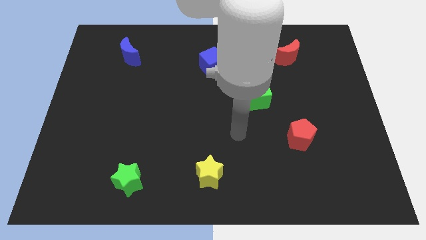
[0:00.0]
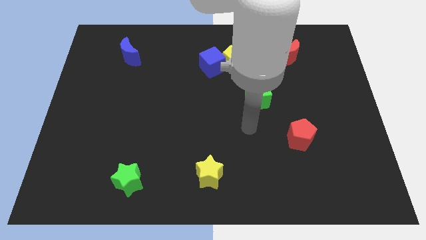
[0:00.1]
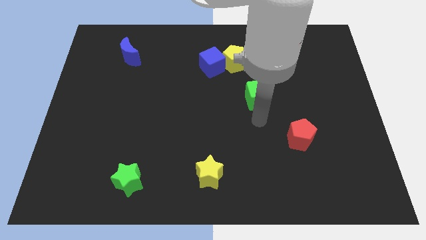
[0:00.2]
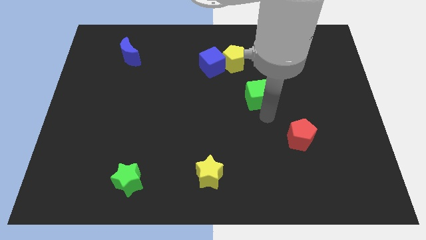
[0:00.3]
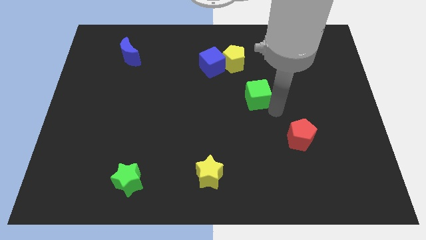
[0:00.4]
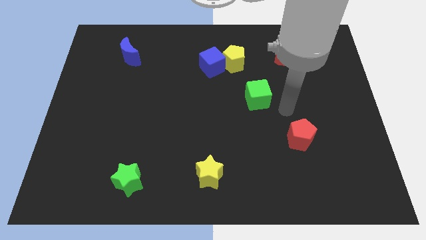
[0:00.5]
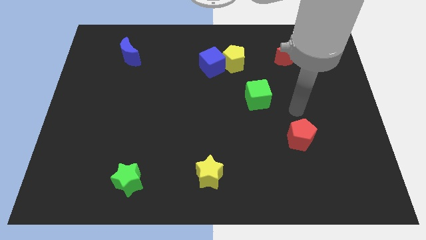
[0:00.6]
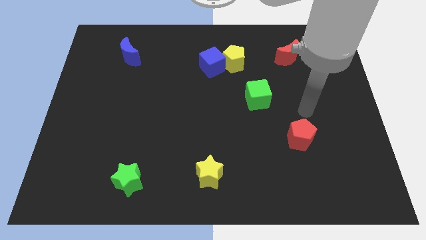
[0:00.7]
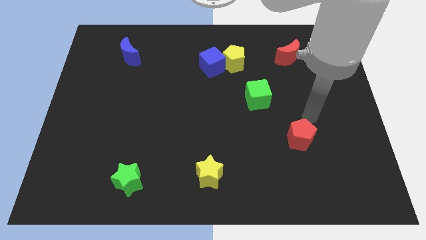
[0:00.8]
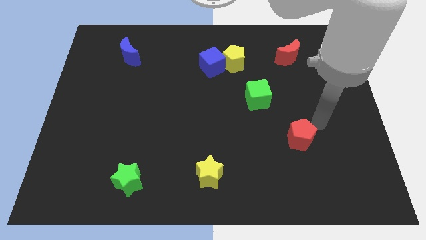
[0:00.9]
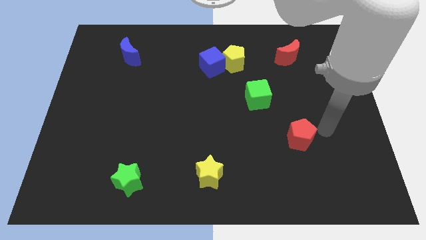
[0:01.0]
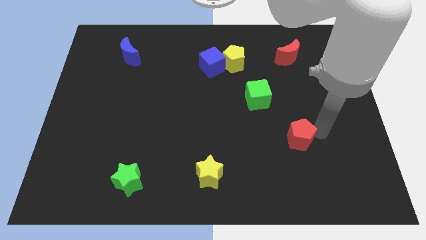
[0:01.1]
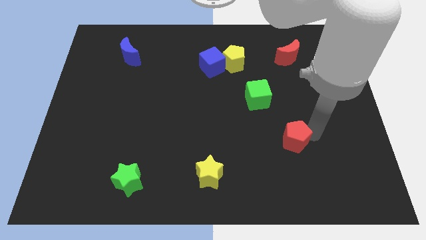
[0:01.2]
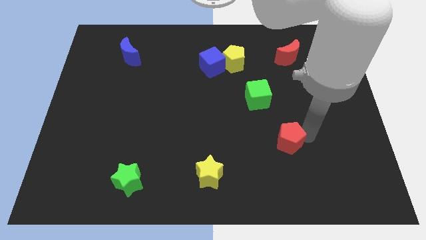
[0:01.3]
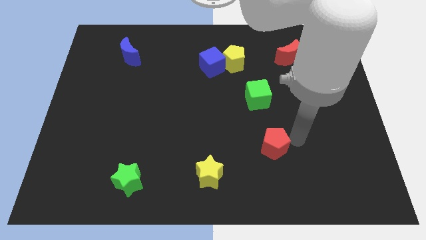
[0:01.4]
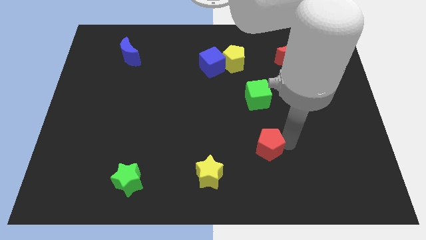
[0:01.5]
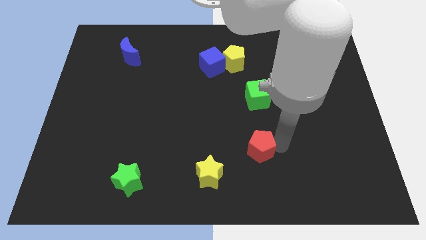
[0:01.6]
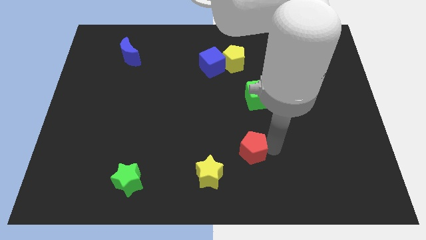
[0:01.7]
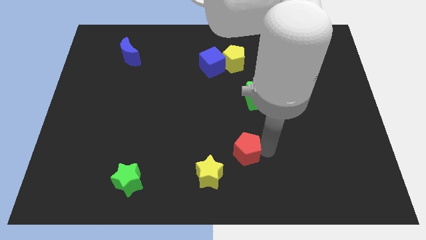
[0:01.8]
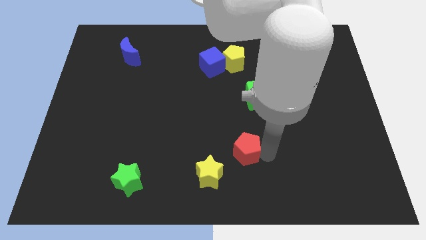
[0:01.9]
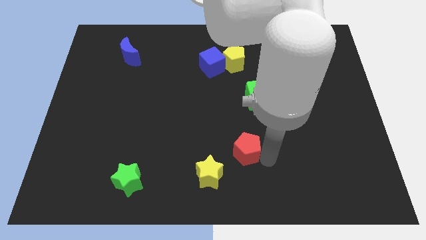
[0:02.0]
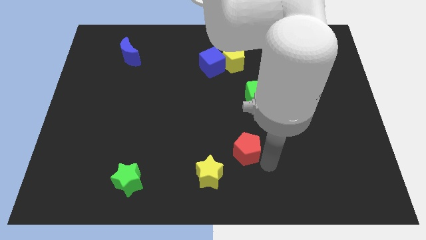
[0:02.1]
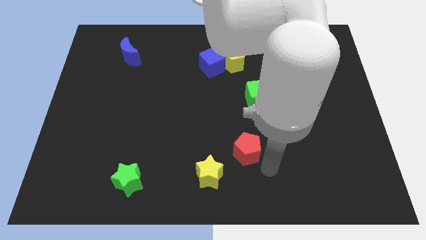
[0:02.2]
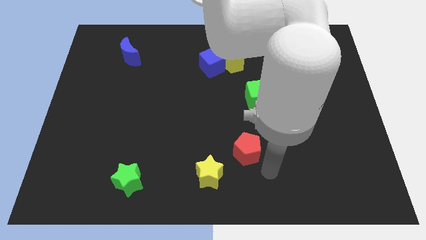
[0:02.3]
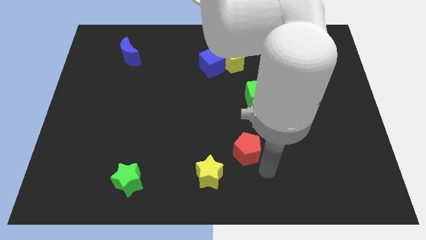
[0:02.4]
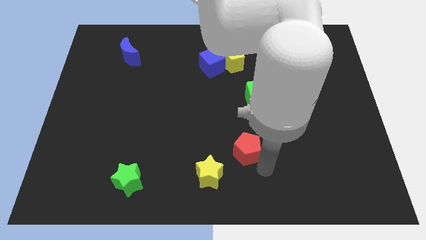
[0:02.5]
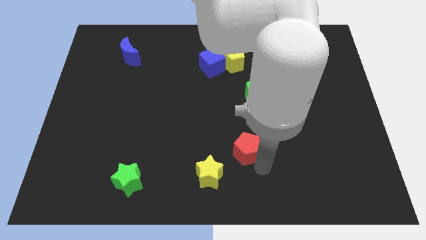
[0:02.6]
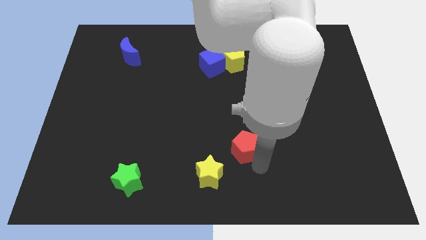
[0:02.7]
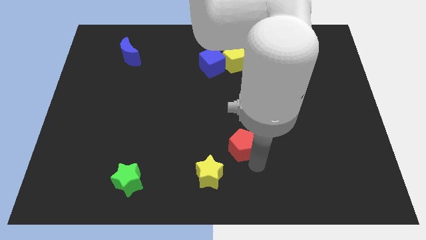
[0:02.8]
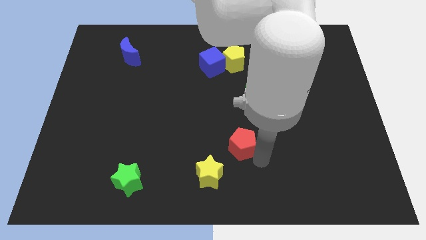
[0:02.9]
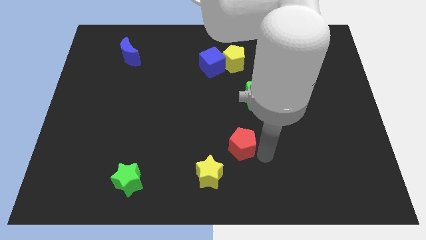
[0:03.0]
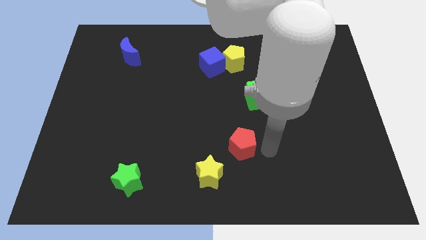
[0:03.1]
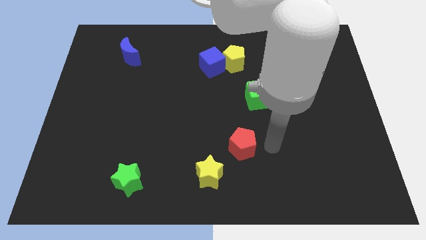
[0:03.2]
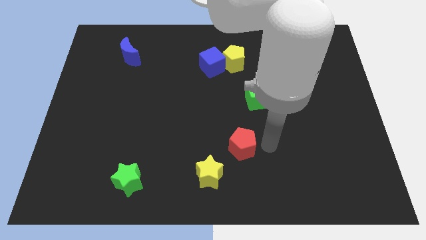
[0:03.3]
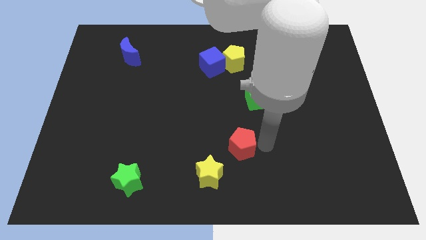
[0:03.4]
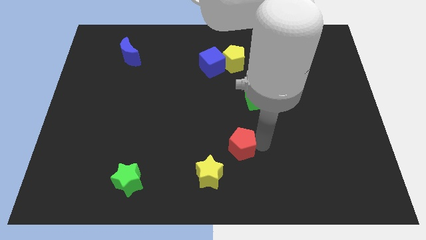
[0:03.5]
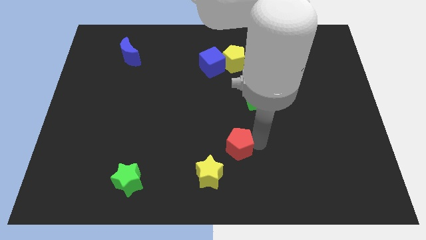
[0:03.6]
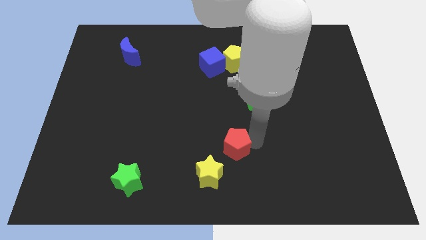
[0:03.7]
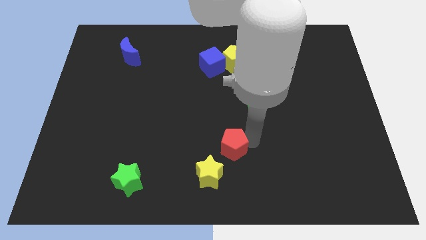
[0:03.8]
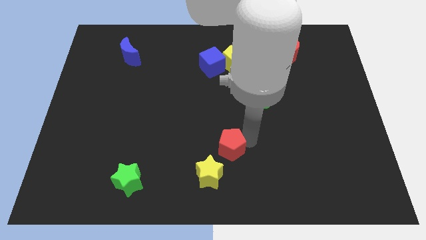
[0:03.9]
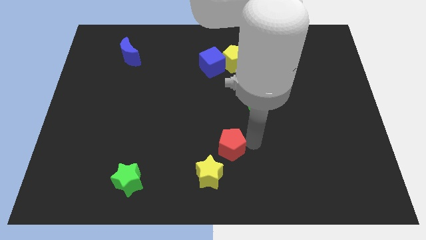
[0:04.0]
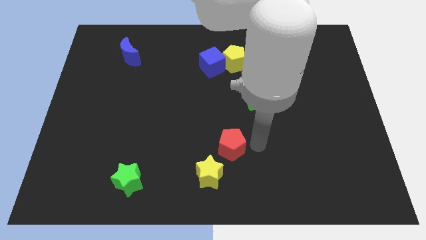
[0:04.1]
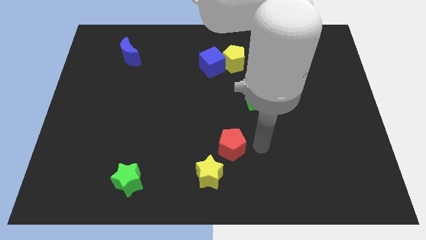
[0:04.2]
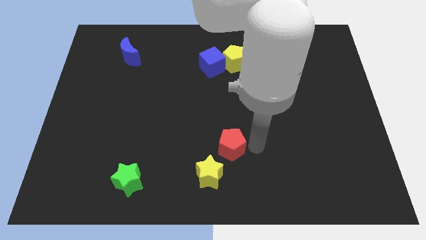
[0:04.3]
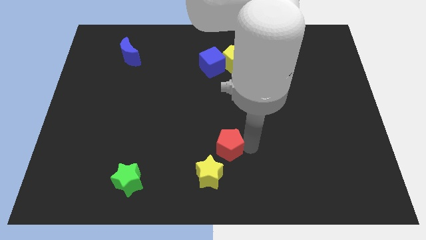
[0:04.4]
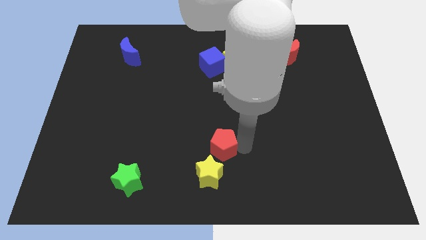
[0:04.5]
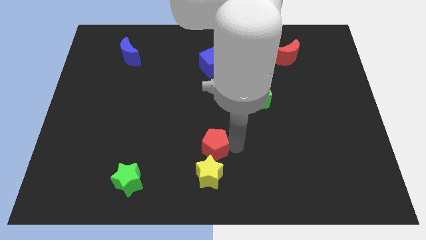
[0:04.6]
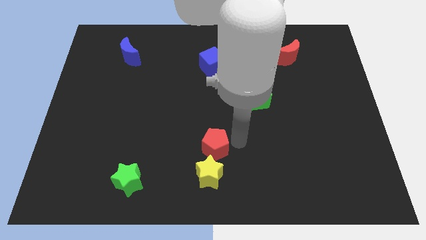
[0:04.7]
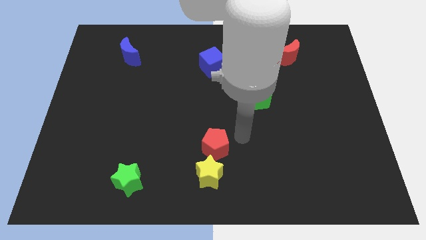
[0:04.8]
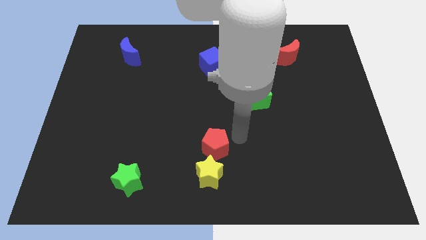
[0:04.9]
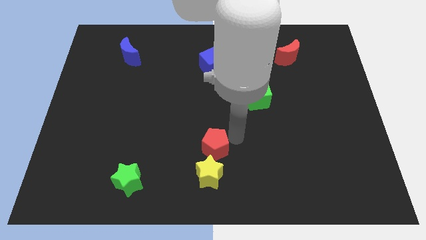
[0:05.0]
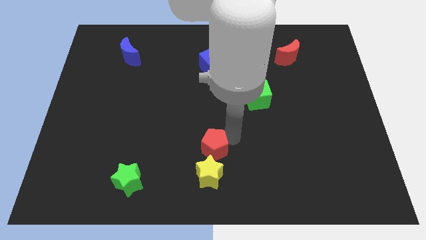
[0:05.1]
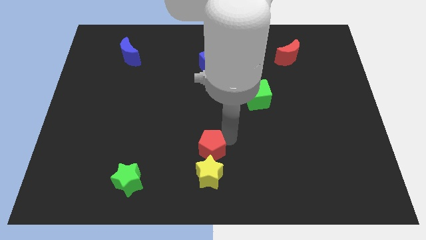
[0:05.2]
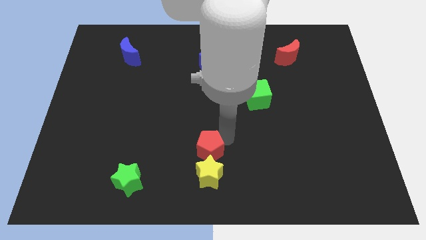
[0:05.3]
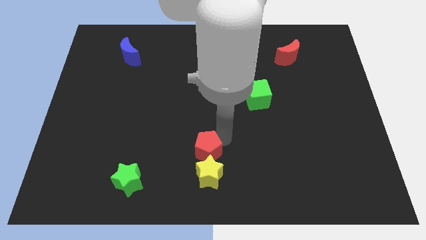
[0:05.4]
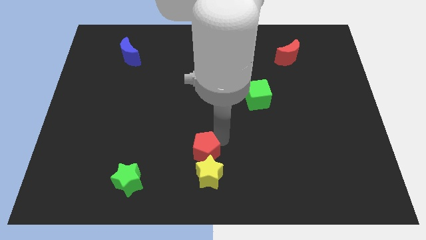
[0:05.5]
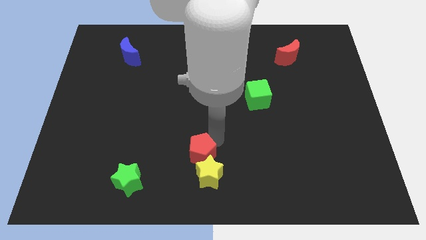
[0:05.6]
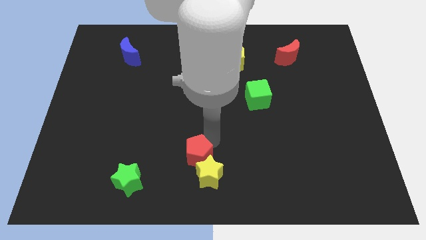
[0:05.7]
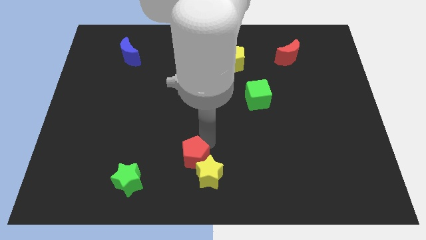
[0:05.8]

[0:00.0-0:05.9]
move the red pentagon just left of the yellow star

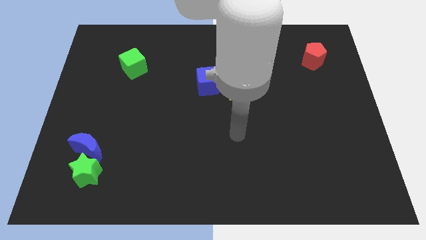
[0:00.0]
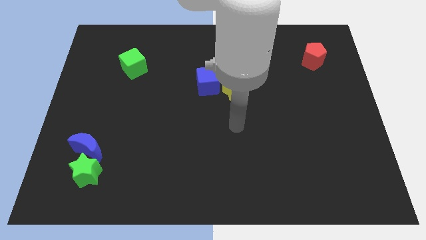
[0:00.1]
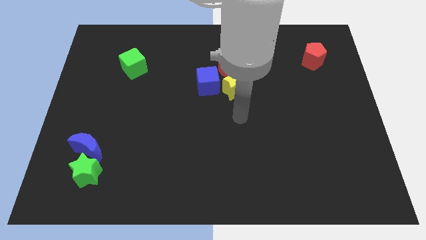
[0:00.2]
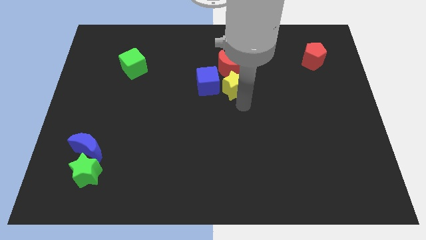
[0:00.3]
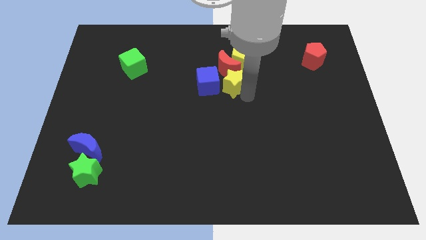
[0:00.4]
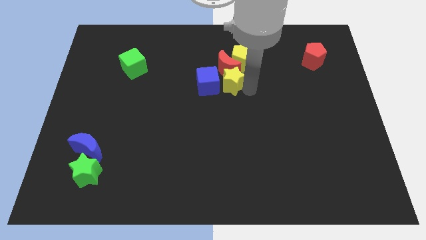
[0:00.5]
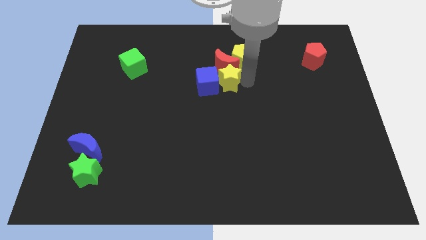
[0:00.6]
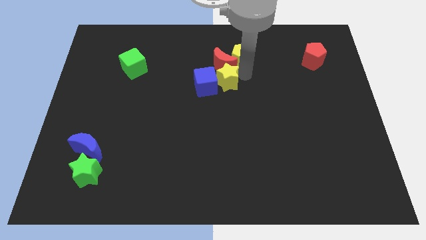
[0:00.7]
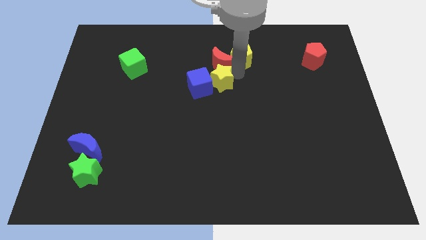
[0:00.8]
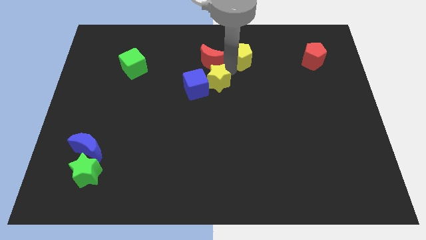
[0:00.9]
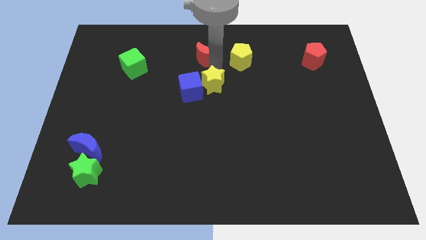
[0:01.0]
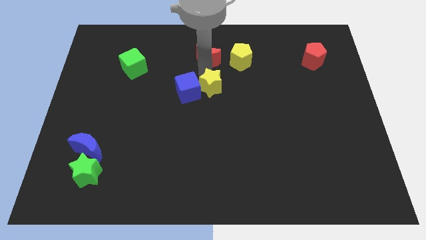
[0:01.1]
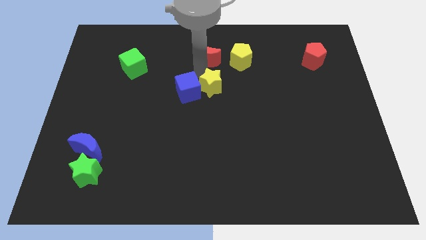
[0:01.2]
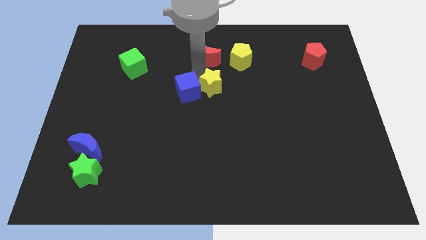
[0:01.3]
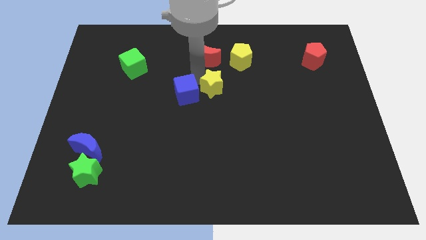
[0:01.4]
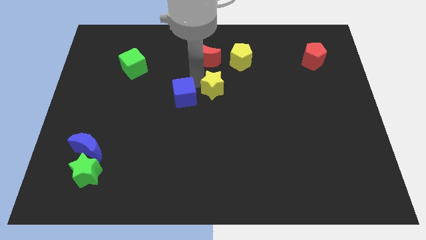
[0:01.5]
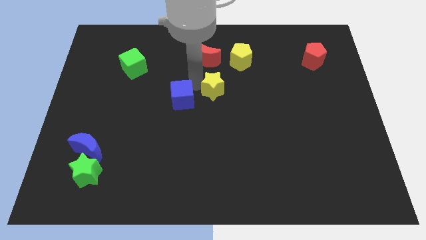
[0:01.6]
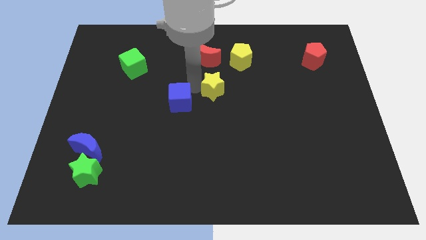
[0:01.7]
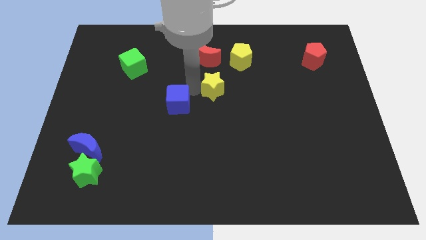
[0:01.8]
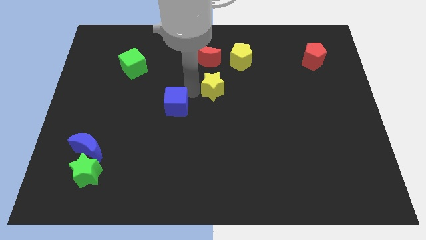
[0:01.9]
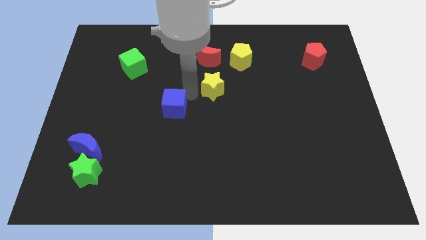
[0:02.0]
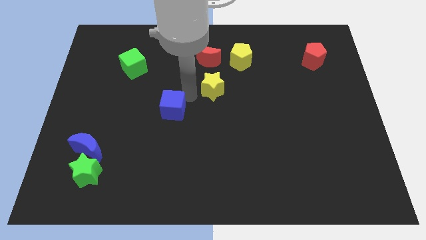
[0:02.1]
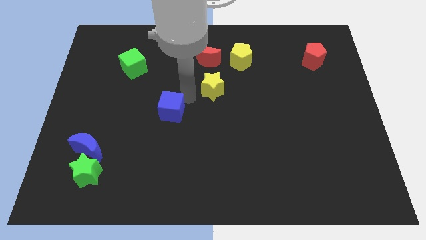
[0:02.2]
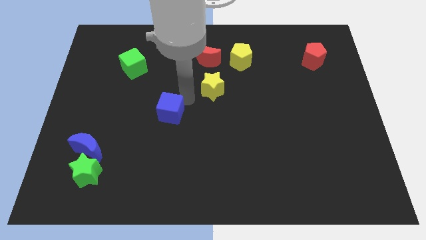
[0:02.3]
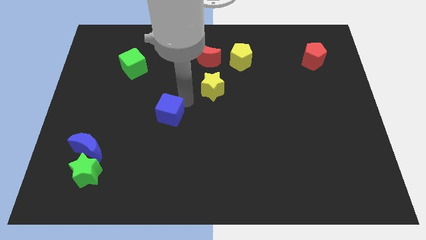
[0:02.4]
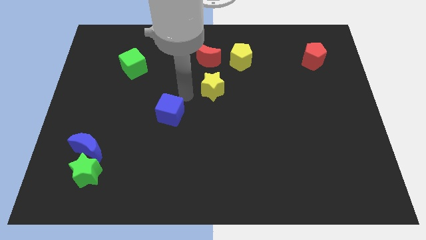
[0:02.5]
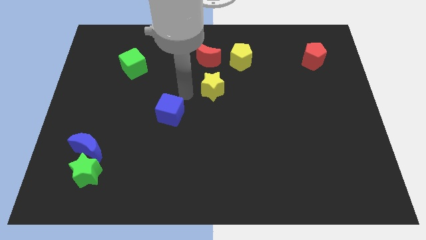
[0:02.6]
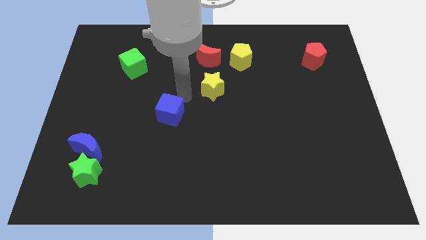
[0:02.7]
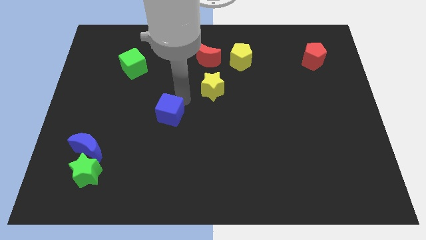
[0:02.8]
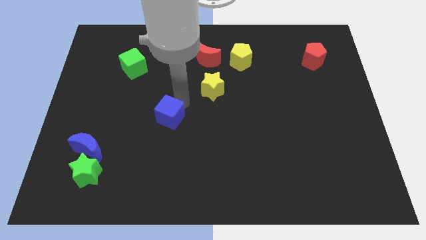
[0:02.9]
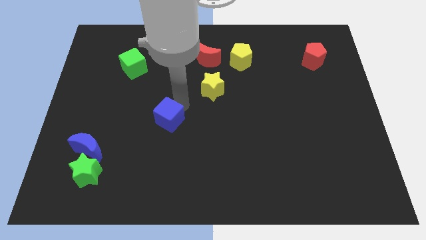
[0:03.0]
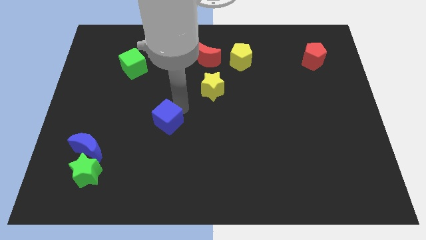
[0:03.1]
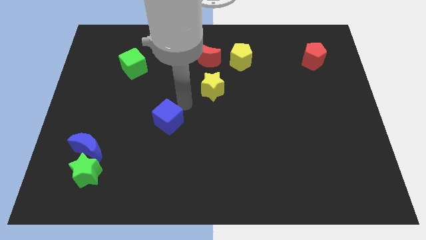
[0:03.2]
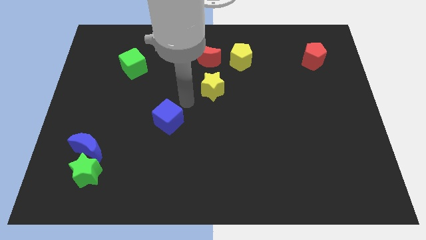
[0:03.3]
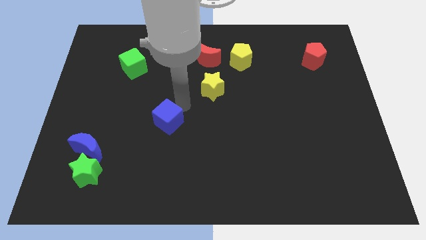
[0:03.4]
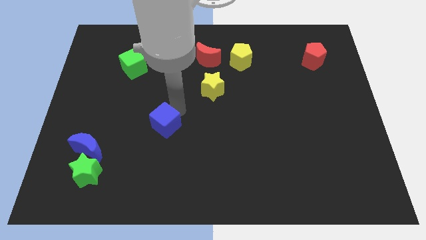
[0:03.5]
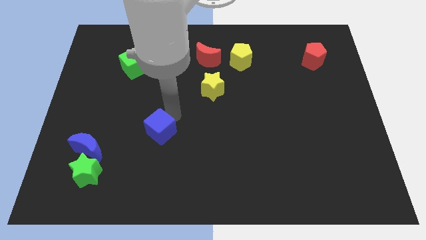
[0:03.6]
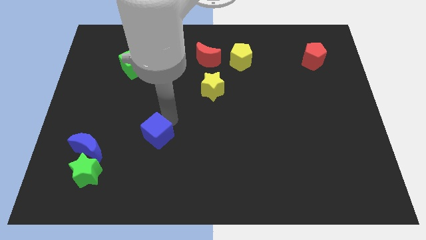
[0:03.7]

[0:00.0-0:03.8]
slide the blue cube just right of the blue moon
